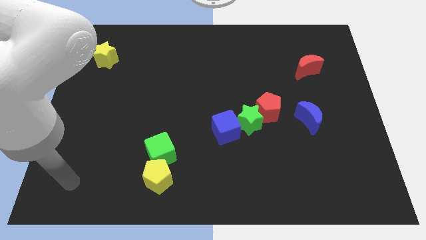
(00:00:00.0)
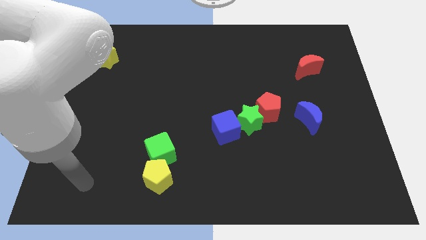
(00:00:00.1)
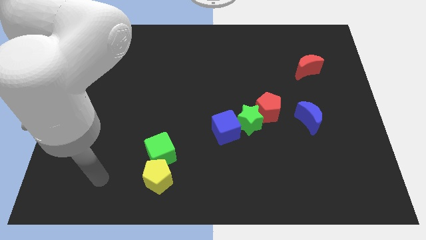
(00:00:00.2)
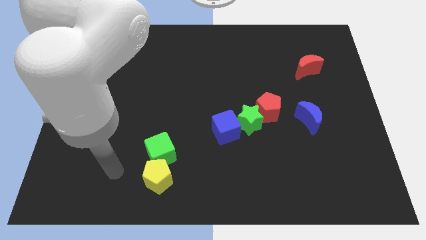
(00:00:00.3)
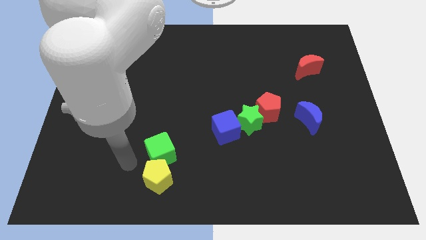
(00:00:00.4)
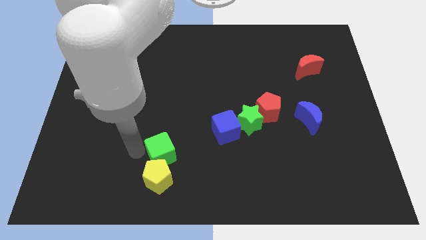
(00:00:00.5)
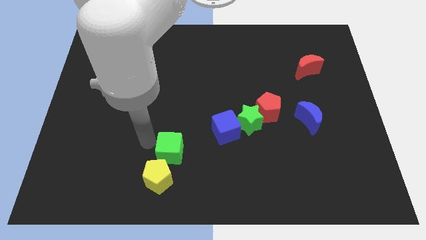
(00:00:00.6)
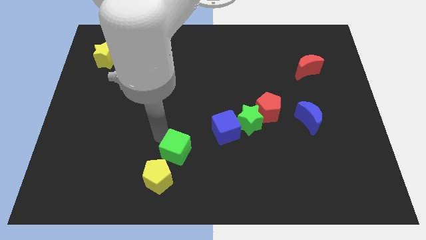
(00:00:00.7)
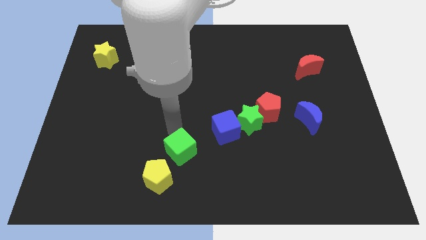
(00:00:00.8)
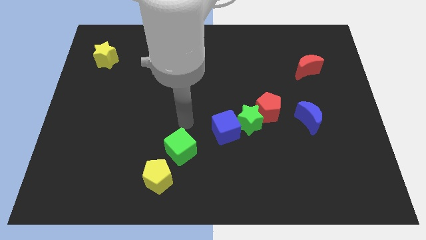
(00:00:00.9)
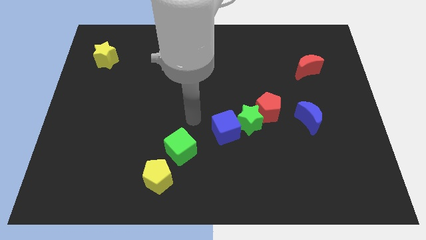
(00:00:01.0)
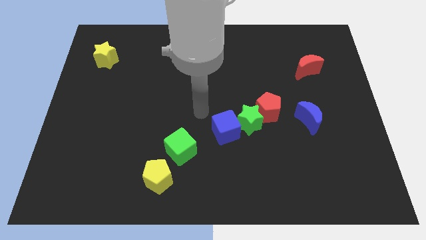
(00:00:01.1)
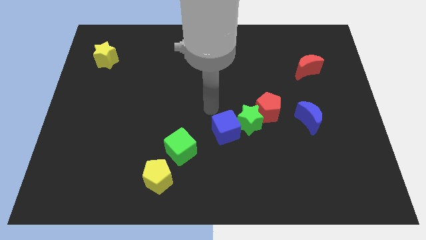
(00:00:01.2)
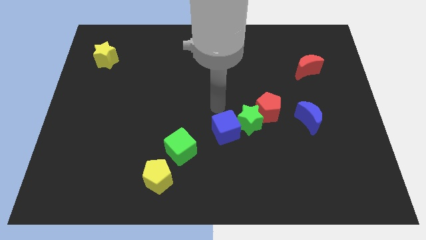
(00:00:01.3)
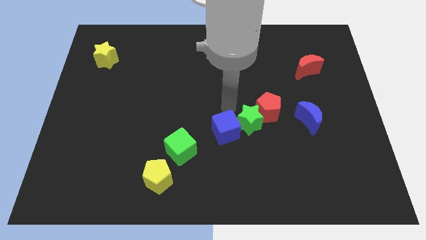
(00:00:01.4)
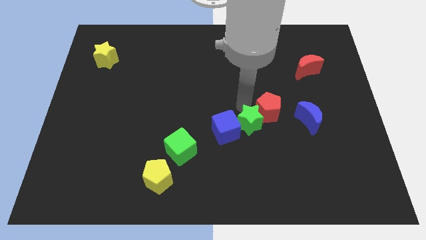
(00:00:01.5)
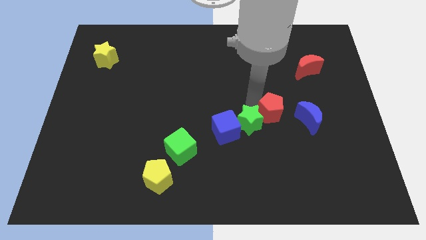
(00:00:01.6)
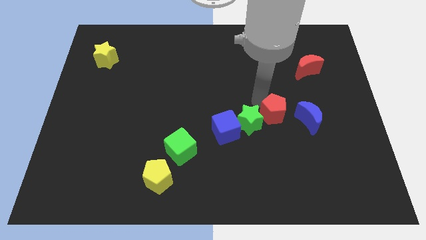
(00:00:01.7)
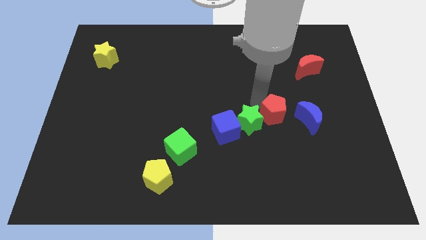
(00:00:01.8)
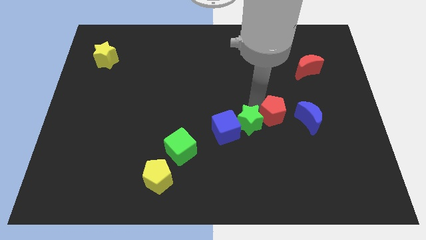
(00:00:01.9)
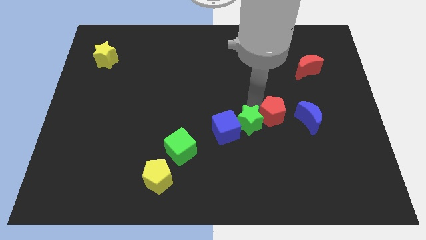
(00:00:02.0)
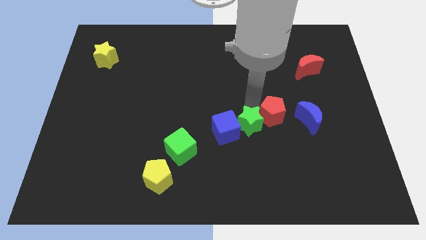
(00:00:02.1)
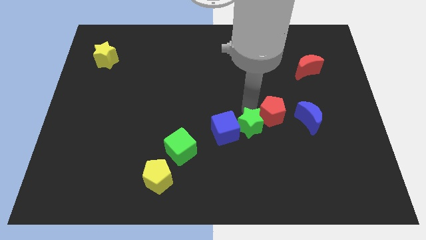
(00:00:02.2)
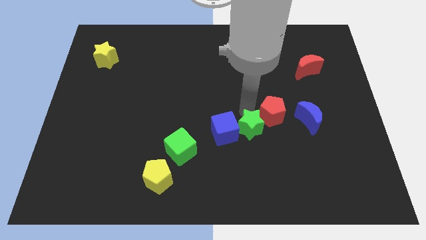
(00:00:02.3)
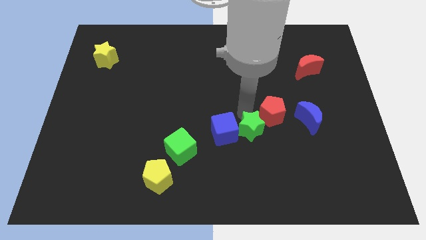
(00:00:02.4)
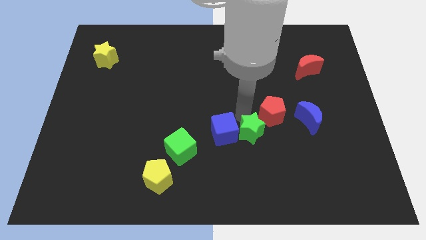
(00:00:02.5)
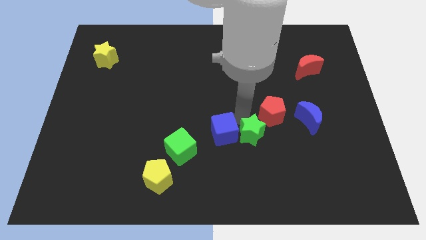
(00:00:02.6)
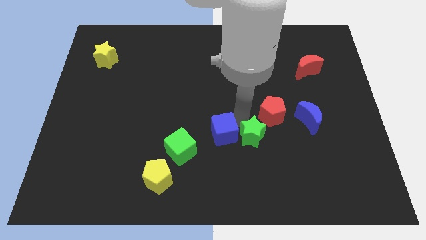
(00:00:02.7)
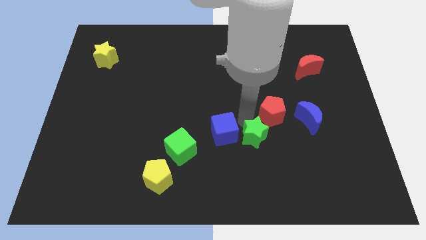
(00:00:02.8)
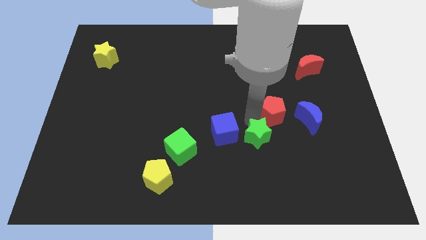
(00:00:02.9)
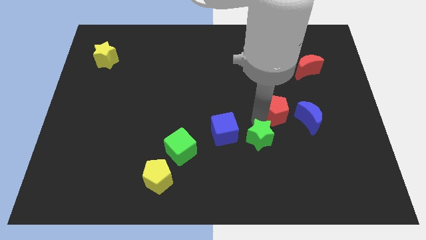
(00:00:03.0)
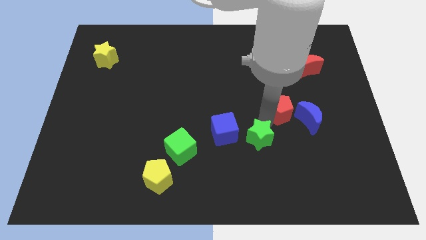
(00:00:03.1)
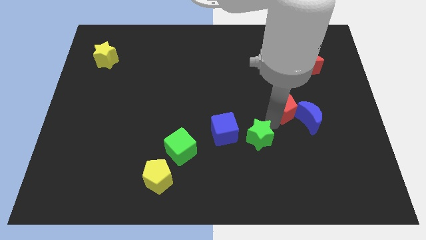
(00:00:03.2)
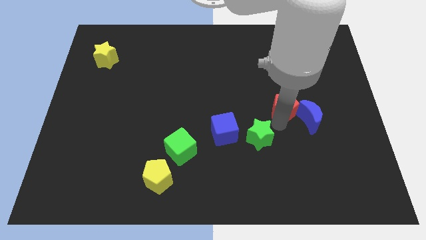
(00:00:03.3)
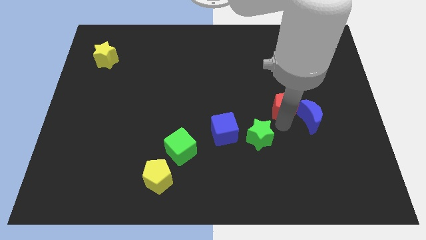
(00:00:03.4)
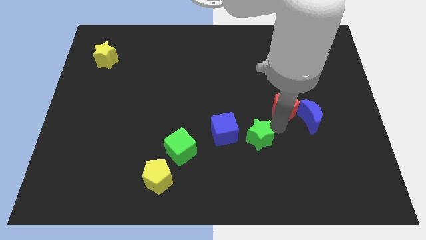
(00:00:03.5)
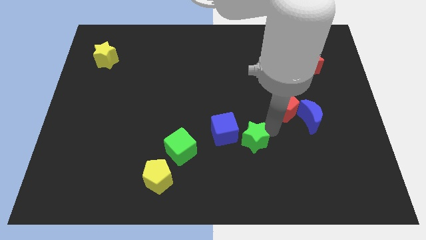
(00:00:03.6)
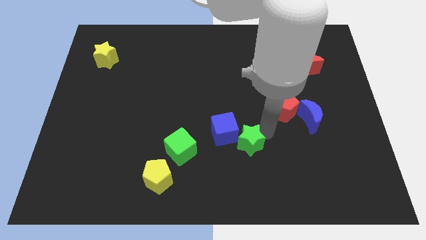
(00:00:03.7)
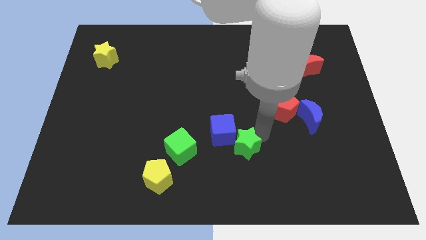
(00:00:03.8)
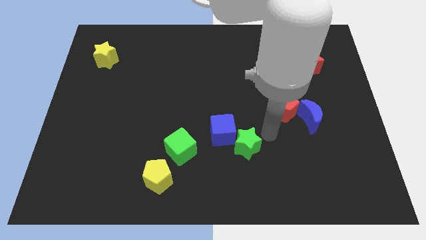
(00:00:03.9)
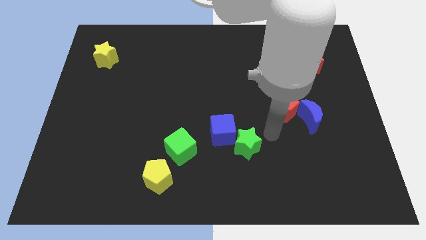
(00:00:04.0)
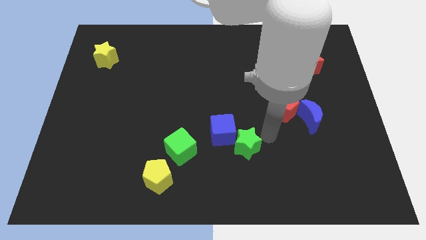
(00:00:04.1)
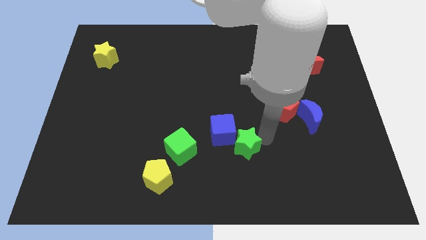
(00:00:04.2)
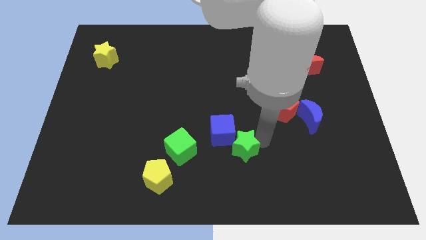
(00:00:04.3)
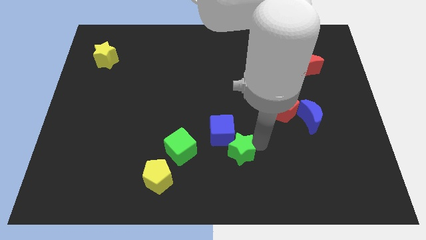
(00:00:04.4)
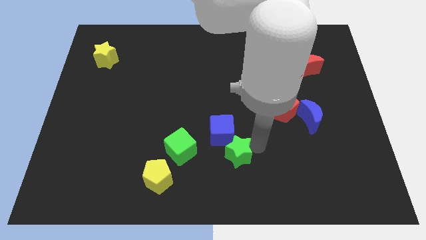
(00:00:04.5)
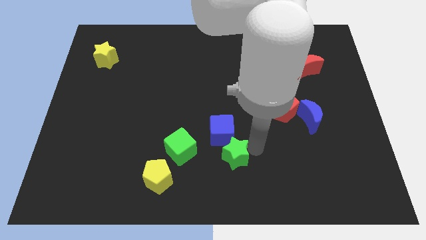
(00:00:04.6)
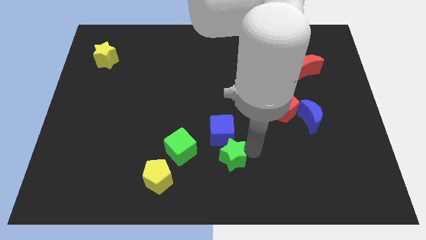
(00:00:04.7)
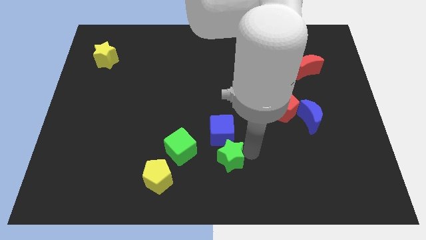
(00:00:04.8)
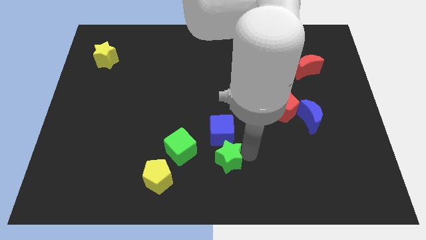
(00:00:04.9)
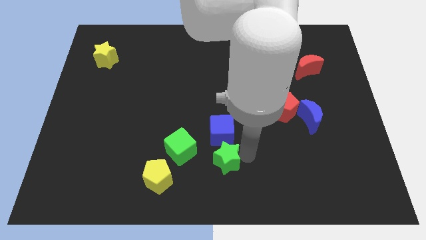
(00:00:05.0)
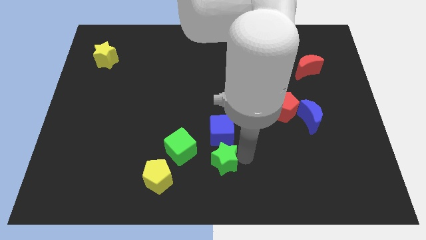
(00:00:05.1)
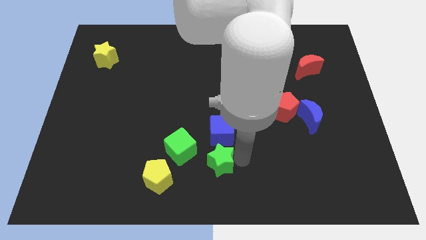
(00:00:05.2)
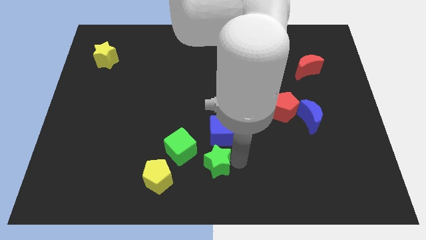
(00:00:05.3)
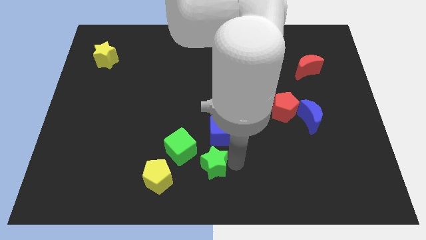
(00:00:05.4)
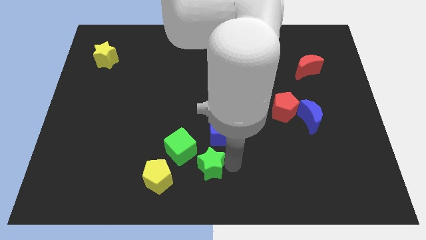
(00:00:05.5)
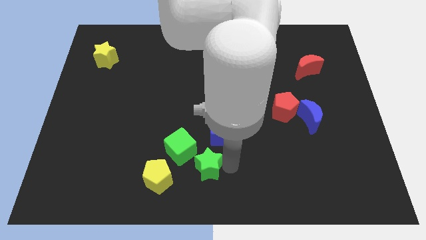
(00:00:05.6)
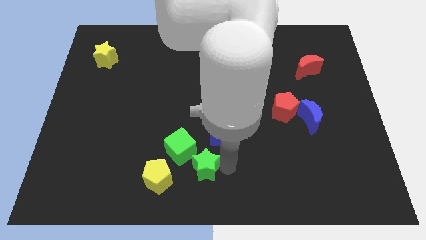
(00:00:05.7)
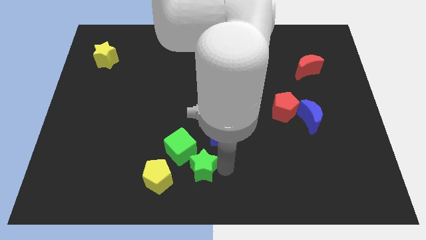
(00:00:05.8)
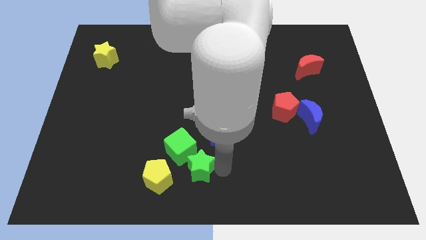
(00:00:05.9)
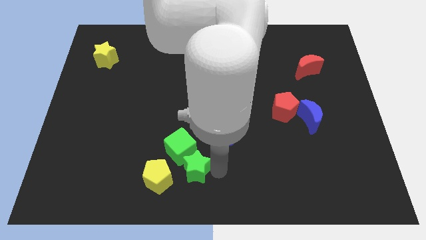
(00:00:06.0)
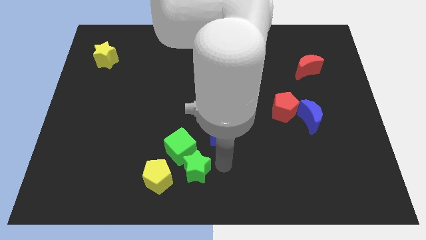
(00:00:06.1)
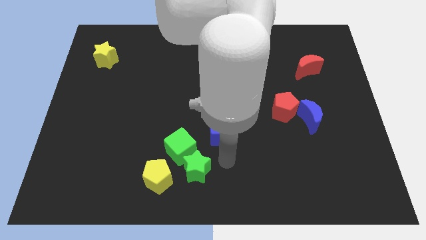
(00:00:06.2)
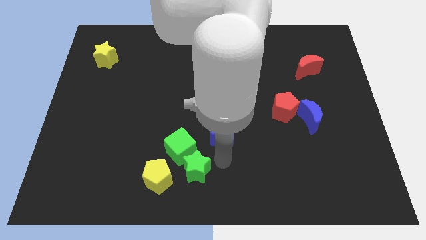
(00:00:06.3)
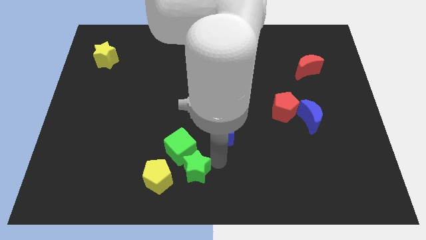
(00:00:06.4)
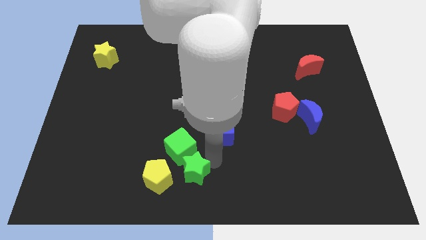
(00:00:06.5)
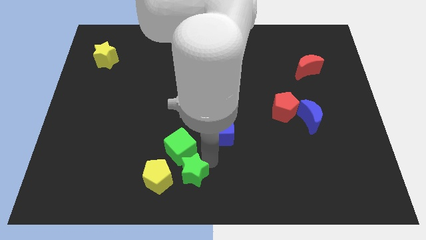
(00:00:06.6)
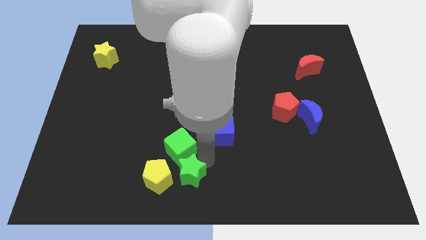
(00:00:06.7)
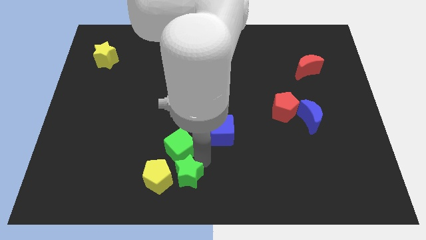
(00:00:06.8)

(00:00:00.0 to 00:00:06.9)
push the green star to the yellow pentagon

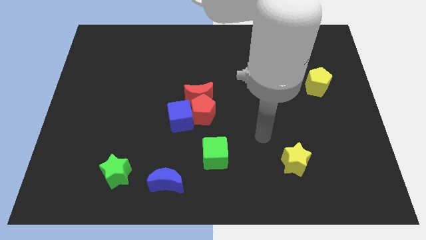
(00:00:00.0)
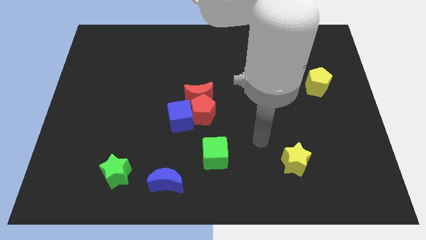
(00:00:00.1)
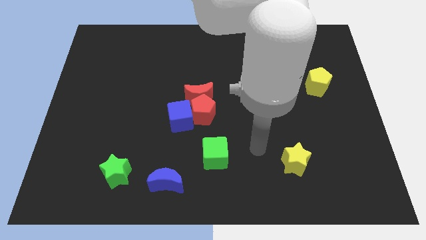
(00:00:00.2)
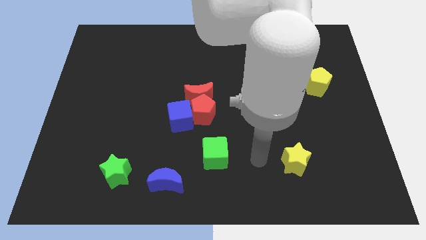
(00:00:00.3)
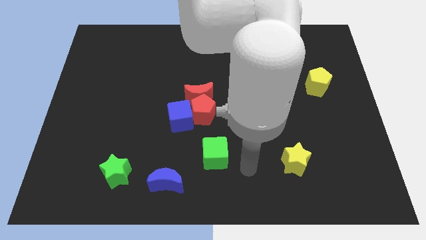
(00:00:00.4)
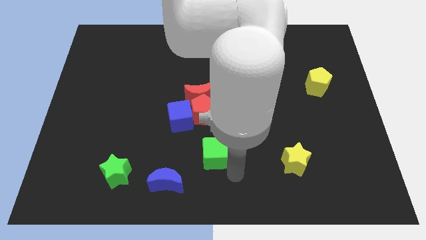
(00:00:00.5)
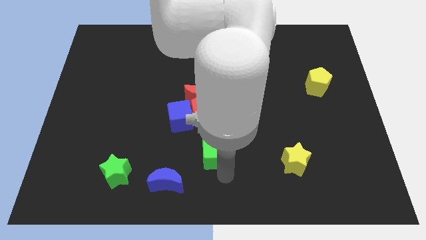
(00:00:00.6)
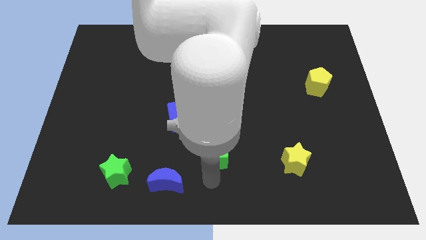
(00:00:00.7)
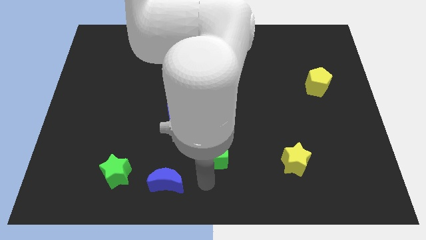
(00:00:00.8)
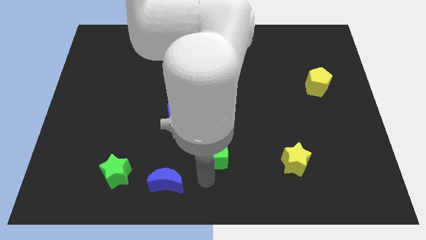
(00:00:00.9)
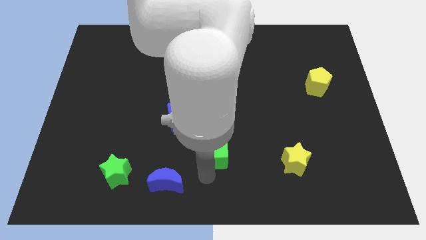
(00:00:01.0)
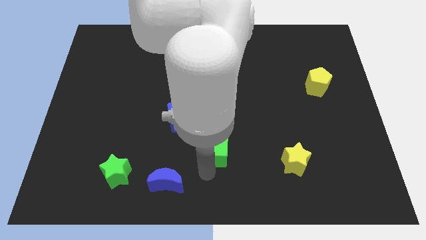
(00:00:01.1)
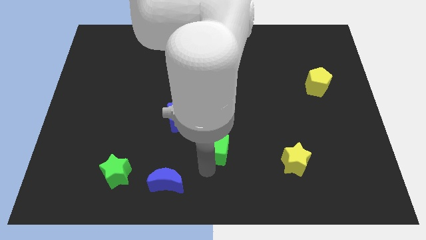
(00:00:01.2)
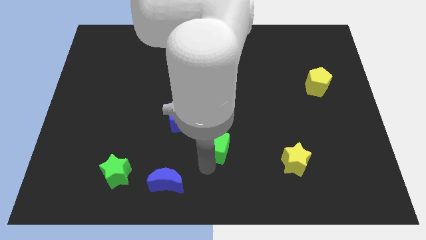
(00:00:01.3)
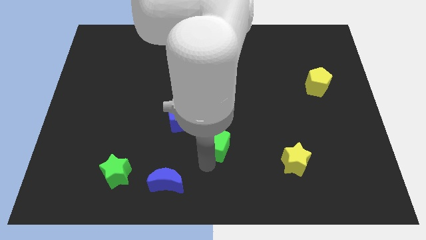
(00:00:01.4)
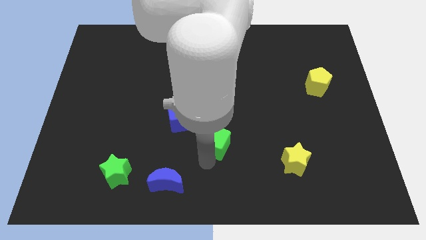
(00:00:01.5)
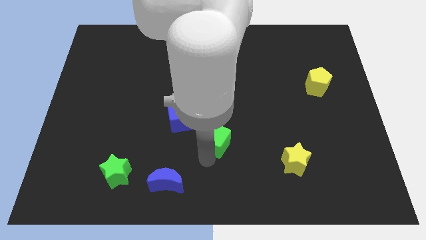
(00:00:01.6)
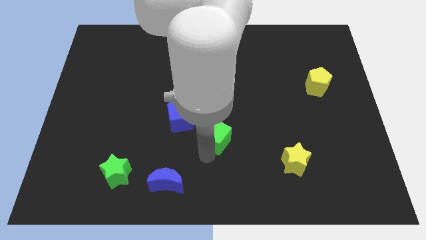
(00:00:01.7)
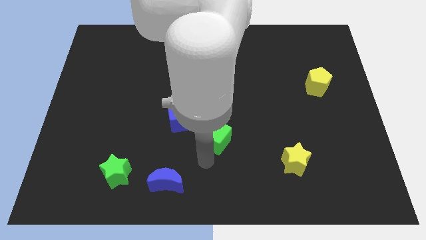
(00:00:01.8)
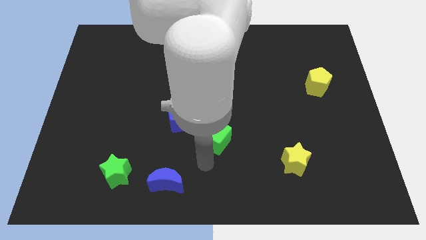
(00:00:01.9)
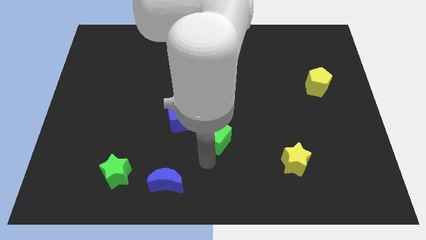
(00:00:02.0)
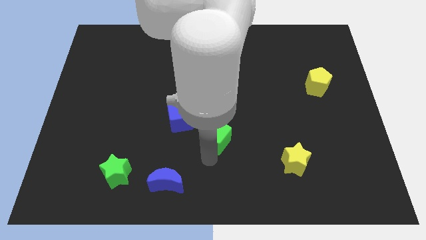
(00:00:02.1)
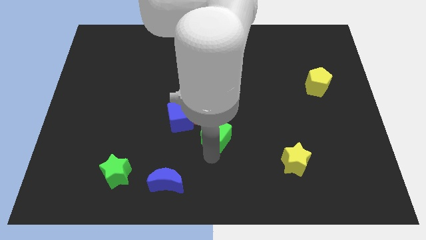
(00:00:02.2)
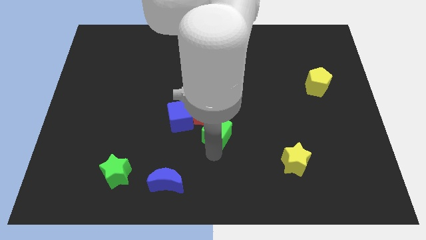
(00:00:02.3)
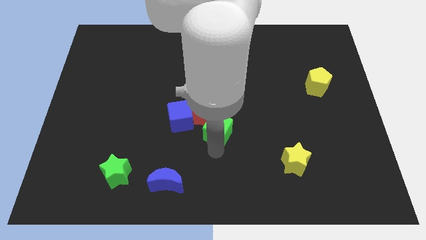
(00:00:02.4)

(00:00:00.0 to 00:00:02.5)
put the green cube to the red pentagon
